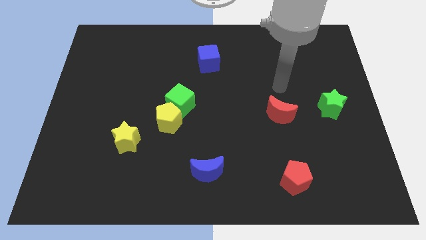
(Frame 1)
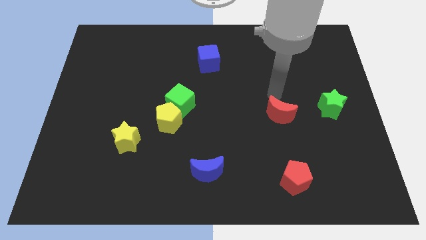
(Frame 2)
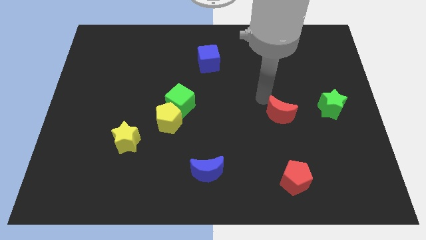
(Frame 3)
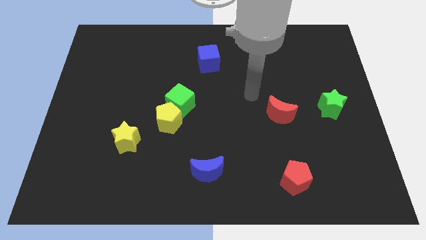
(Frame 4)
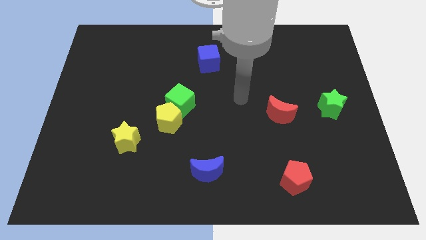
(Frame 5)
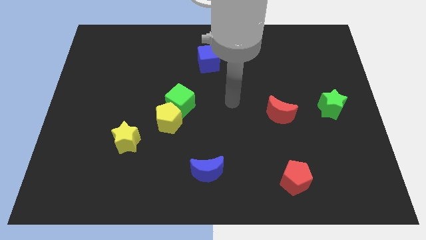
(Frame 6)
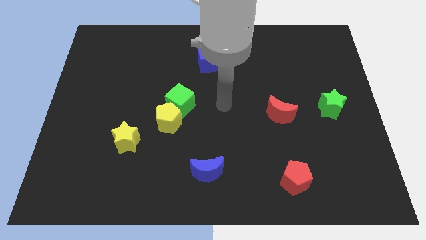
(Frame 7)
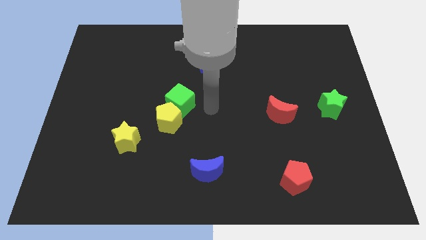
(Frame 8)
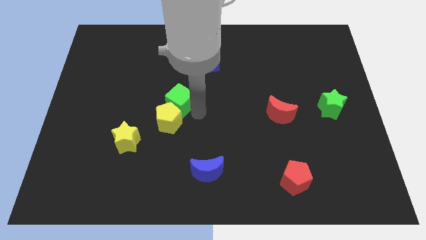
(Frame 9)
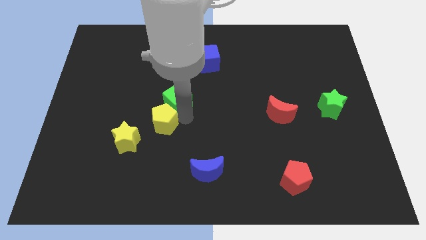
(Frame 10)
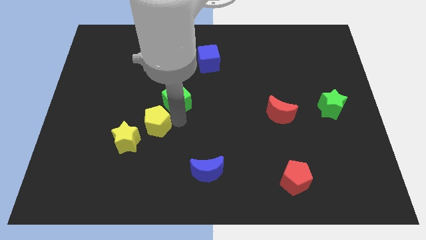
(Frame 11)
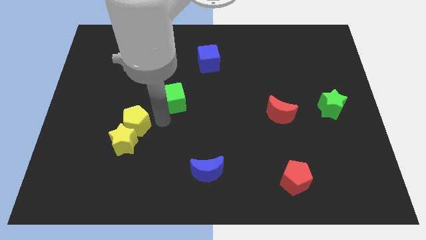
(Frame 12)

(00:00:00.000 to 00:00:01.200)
separate the green cube from the yellow pentagon

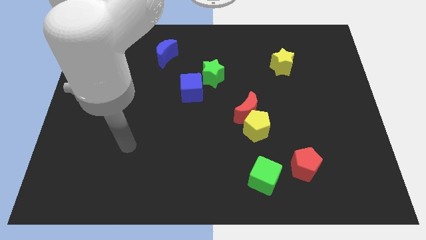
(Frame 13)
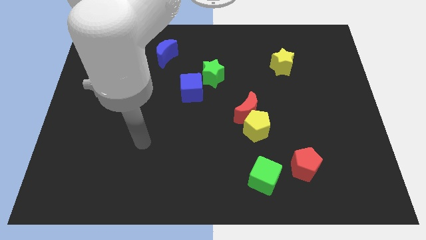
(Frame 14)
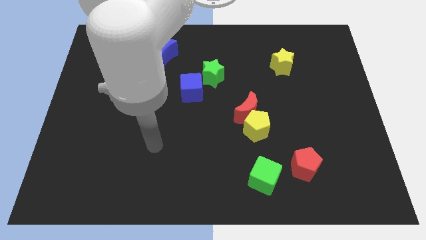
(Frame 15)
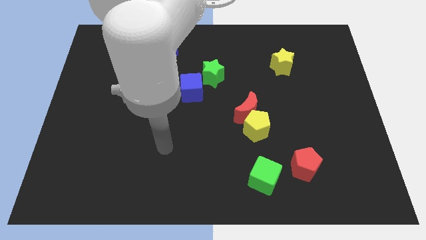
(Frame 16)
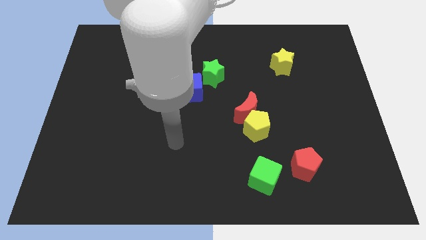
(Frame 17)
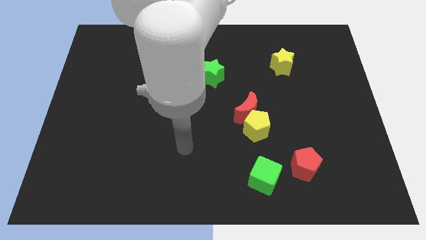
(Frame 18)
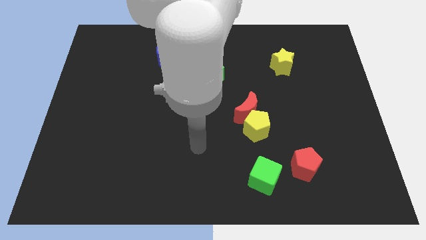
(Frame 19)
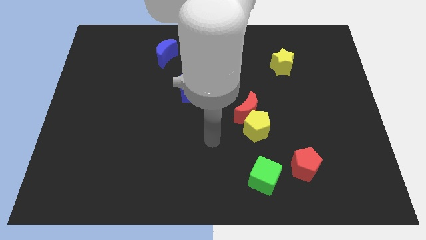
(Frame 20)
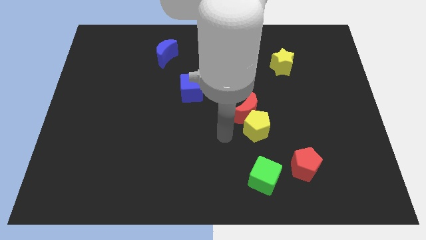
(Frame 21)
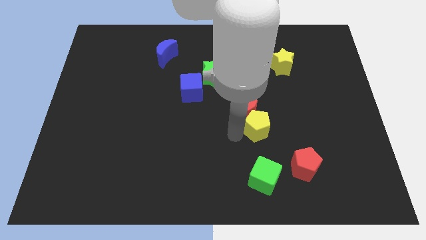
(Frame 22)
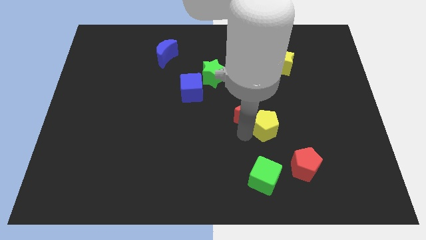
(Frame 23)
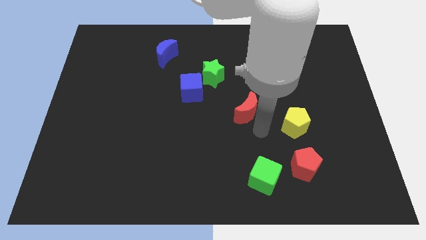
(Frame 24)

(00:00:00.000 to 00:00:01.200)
separate the red moon from the yellow pentagon

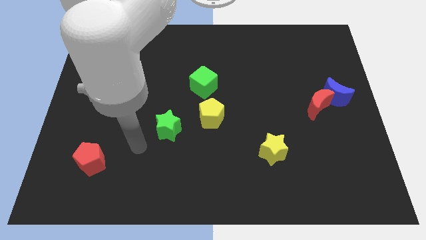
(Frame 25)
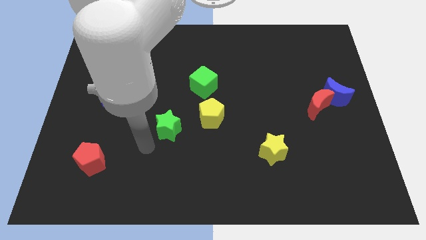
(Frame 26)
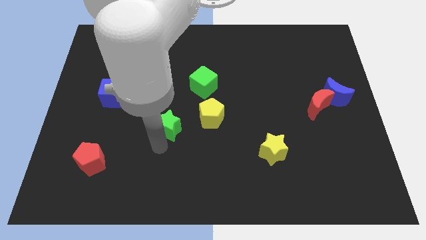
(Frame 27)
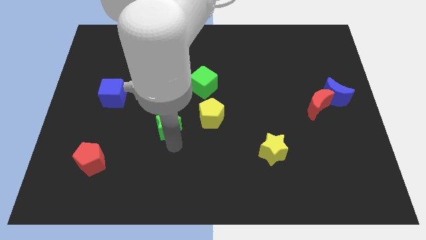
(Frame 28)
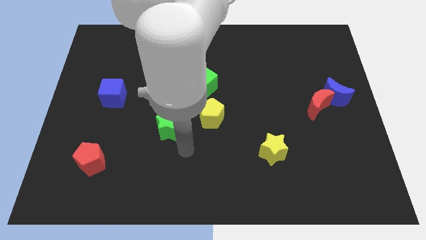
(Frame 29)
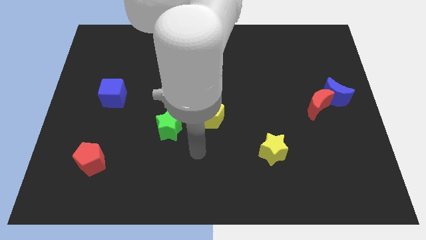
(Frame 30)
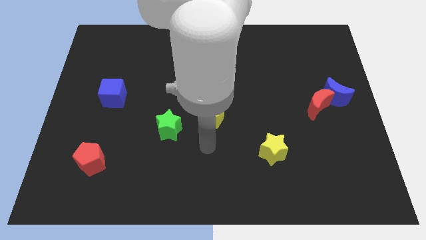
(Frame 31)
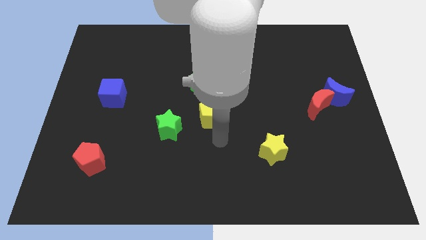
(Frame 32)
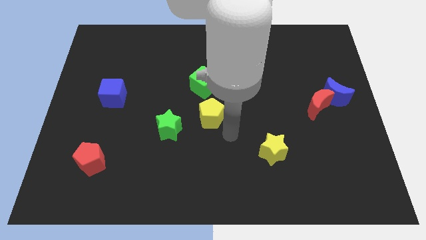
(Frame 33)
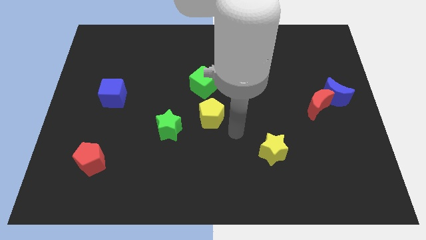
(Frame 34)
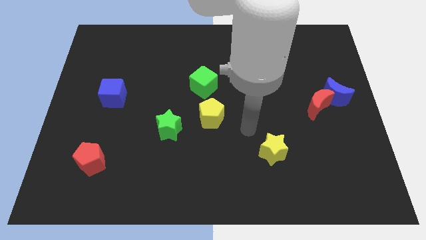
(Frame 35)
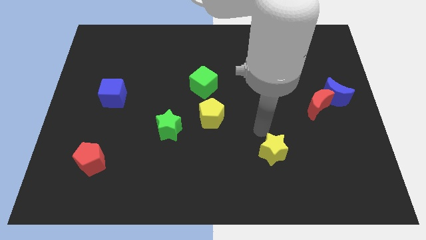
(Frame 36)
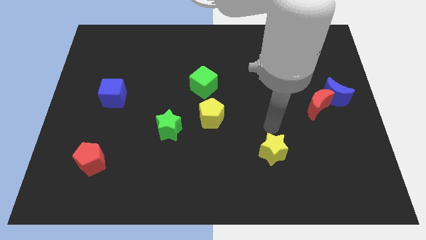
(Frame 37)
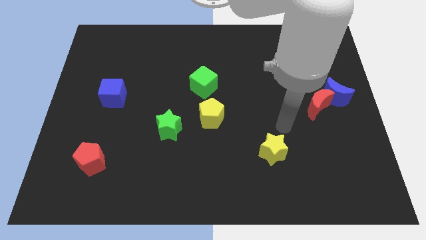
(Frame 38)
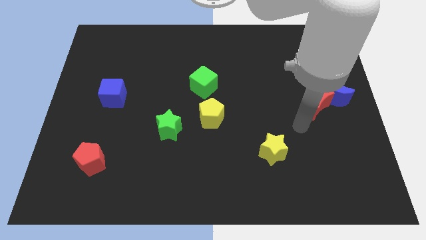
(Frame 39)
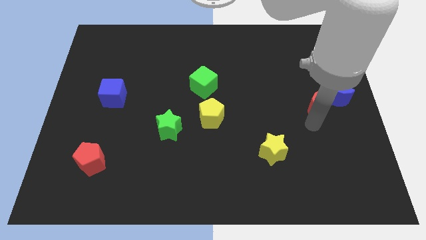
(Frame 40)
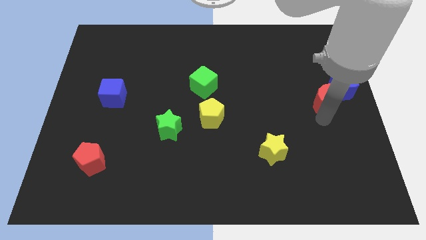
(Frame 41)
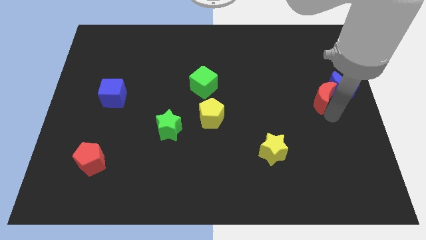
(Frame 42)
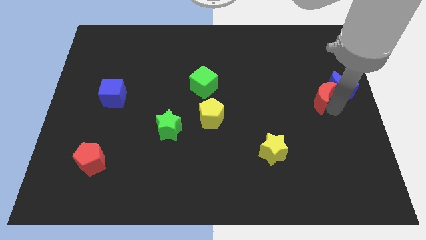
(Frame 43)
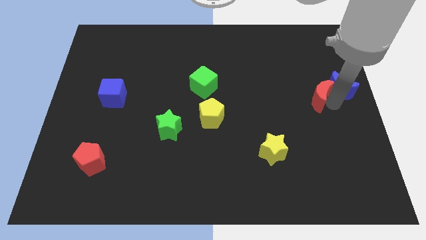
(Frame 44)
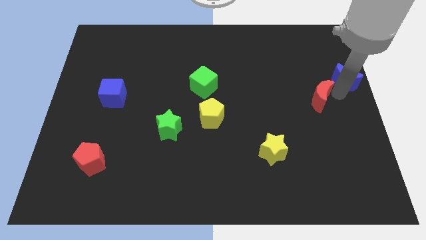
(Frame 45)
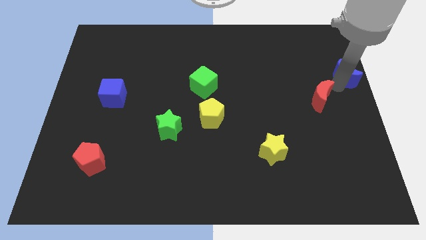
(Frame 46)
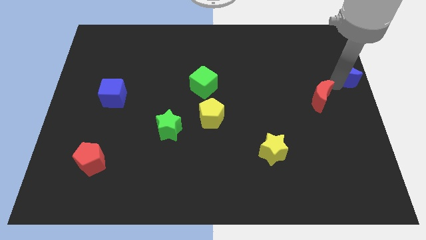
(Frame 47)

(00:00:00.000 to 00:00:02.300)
pull the red moon apart from the blue moon

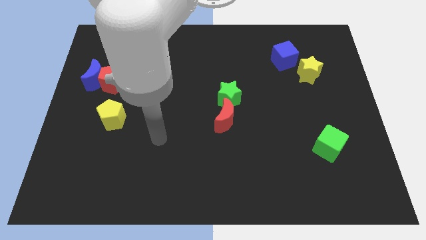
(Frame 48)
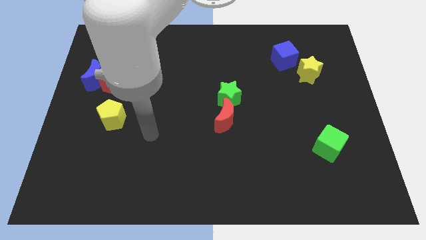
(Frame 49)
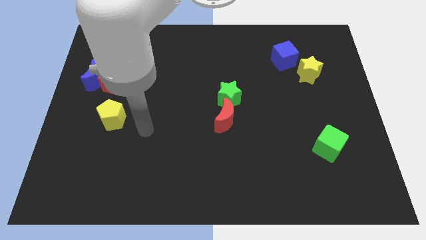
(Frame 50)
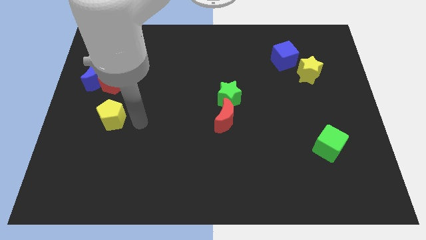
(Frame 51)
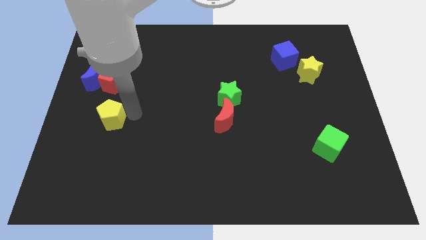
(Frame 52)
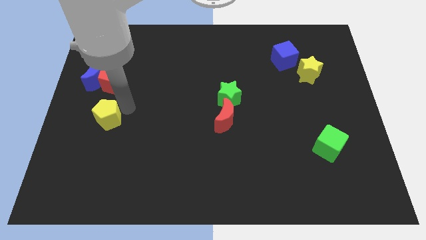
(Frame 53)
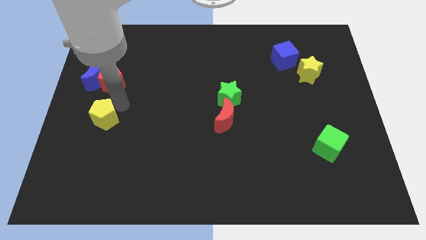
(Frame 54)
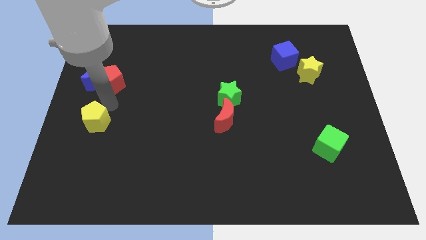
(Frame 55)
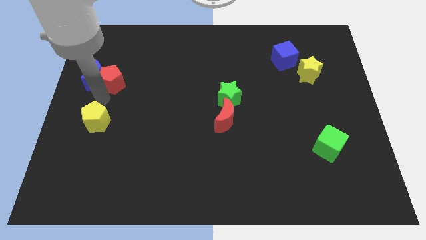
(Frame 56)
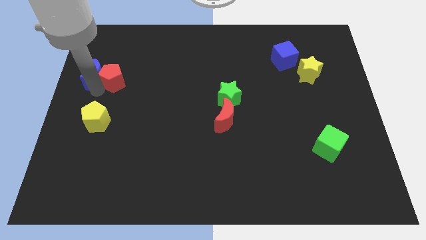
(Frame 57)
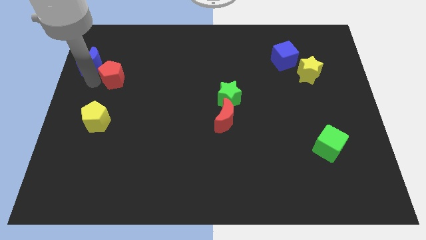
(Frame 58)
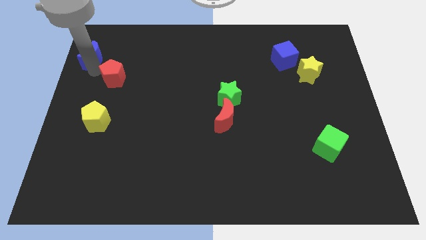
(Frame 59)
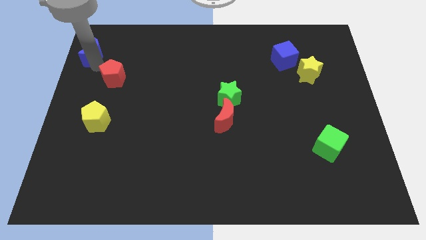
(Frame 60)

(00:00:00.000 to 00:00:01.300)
pull the red pentagon apart from the blue moon

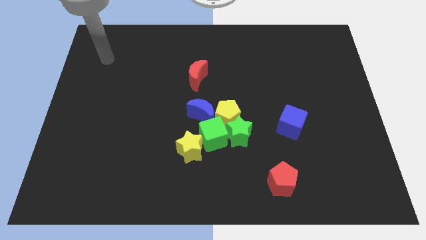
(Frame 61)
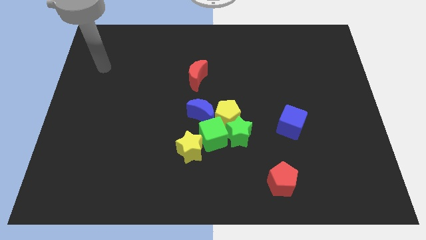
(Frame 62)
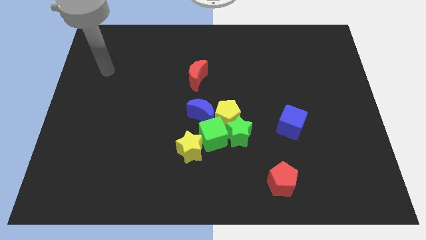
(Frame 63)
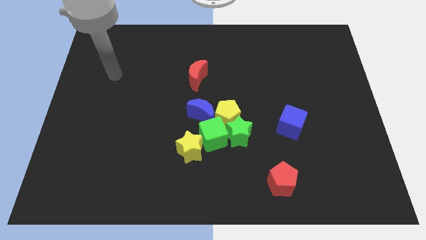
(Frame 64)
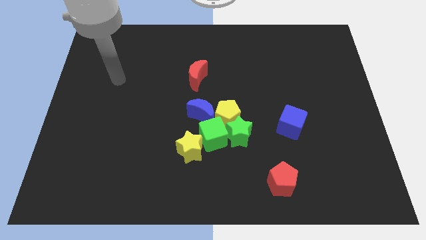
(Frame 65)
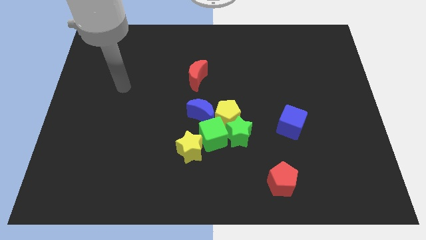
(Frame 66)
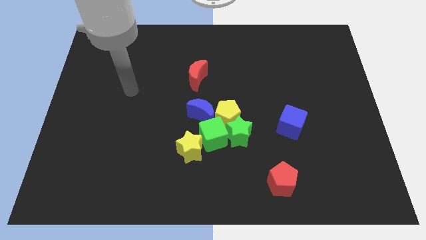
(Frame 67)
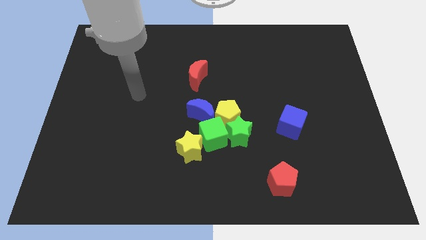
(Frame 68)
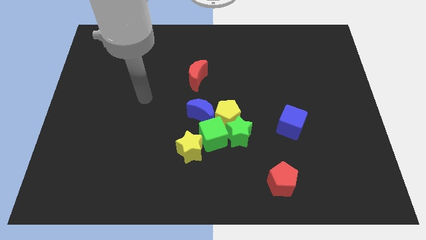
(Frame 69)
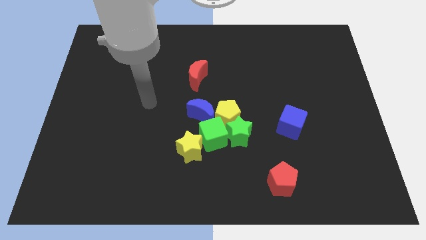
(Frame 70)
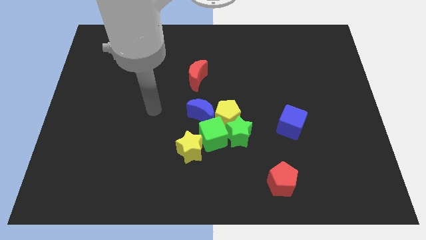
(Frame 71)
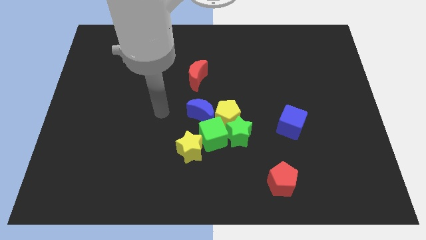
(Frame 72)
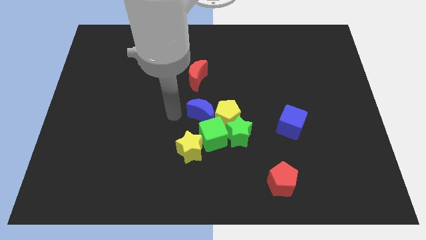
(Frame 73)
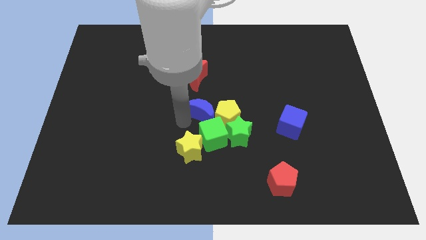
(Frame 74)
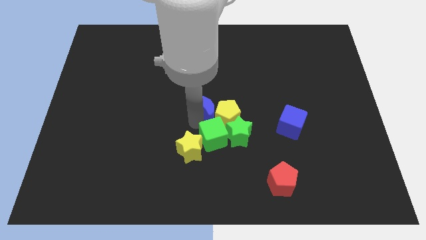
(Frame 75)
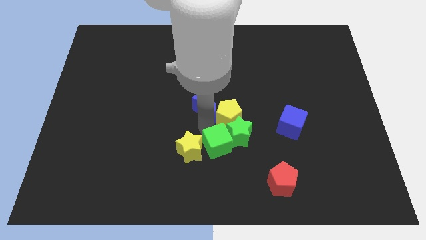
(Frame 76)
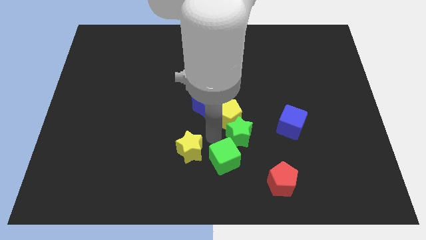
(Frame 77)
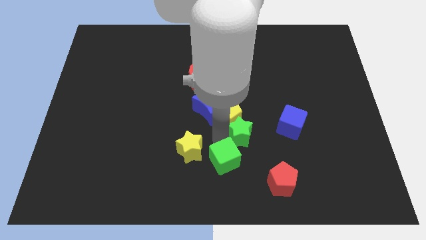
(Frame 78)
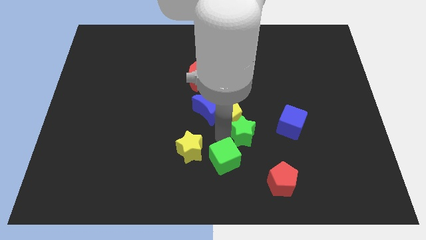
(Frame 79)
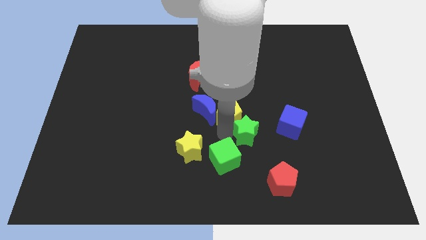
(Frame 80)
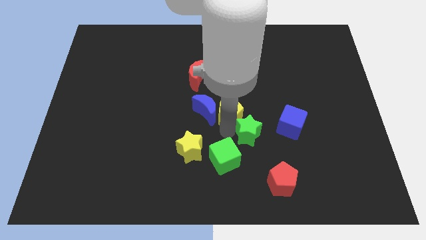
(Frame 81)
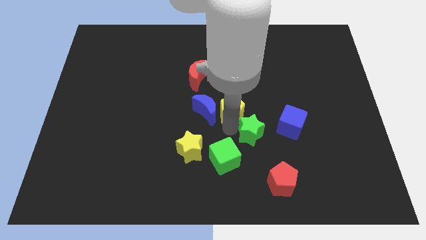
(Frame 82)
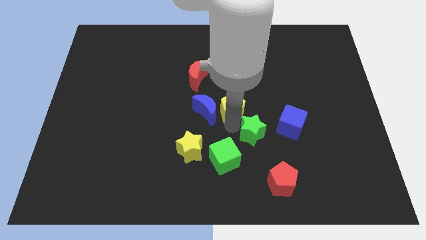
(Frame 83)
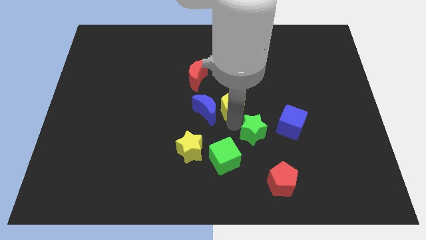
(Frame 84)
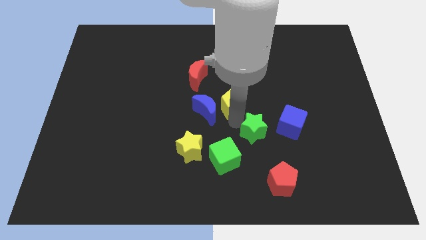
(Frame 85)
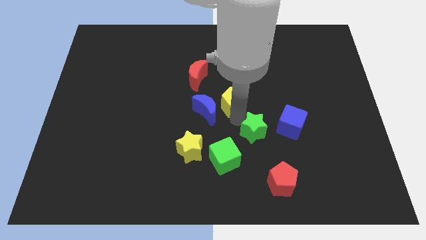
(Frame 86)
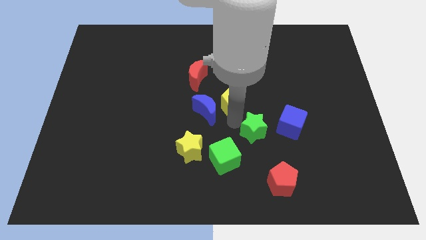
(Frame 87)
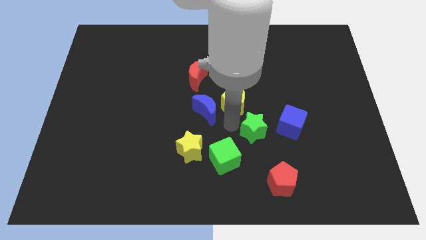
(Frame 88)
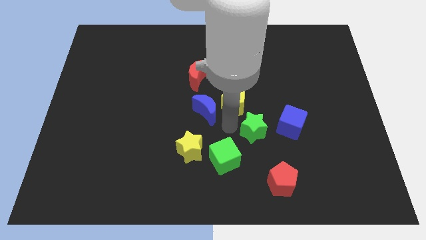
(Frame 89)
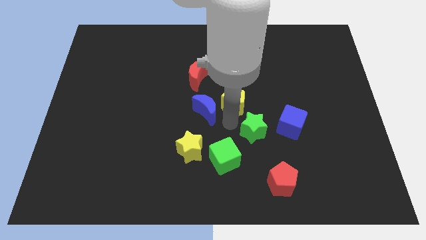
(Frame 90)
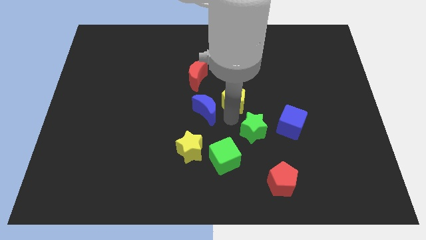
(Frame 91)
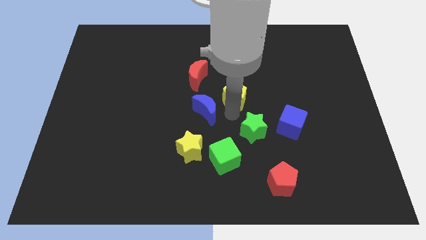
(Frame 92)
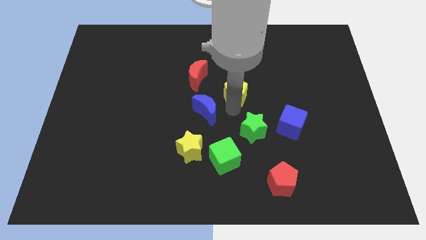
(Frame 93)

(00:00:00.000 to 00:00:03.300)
pull the yellow pentagon apart from the green star, blue moon, and green cube
